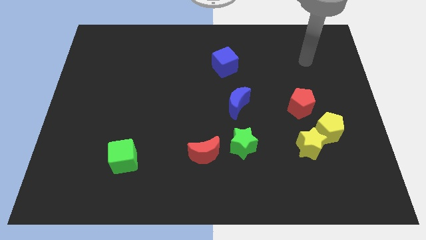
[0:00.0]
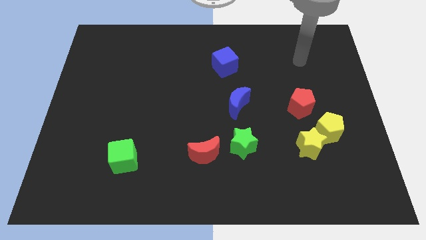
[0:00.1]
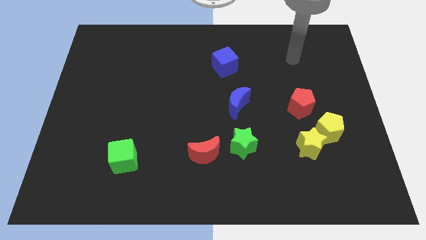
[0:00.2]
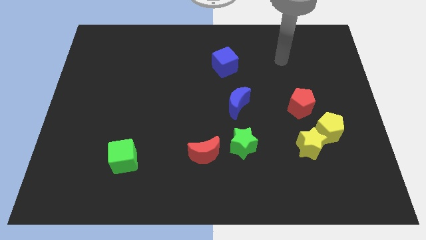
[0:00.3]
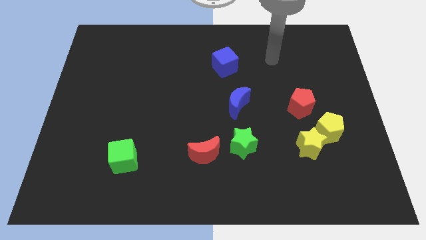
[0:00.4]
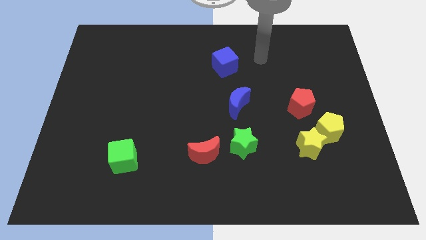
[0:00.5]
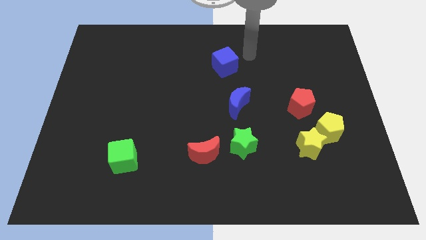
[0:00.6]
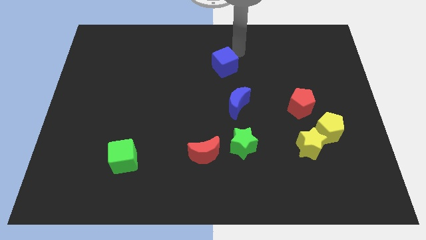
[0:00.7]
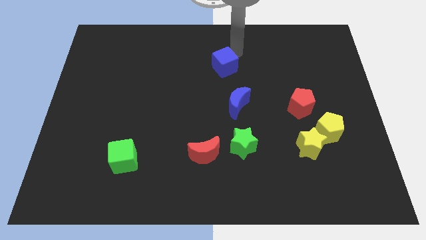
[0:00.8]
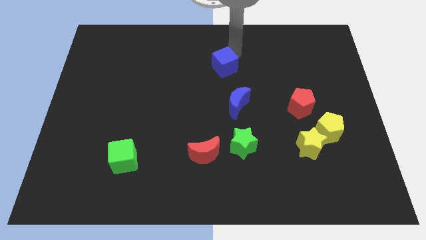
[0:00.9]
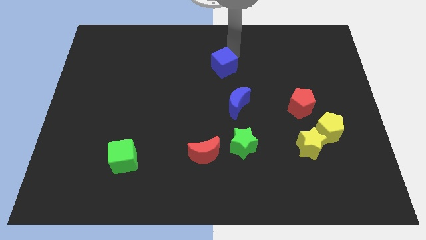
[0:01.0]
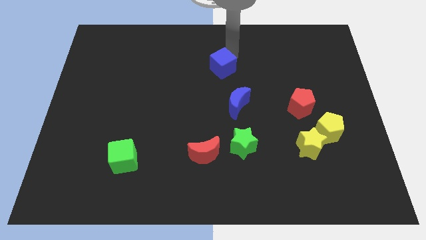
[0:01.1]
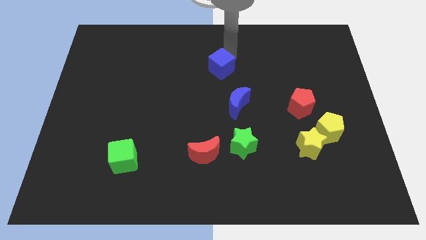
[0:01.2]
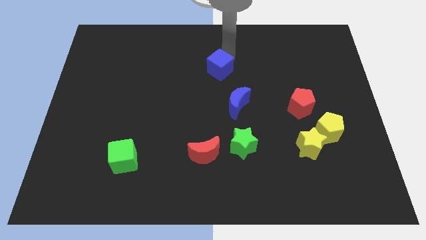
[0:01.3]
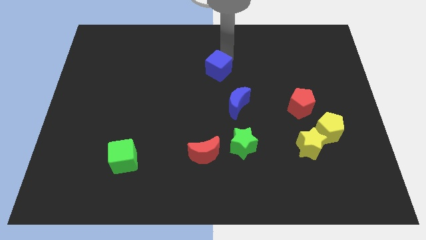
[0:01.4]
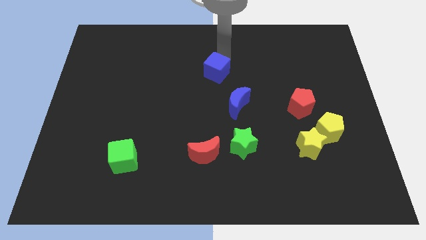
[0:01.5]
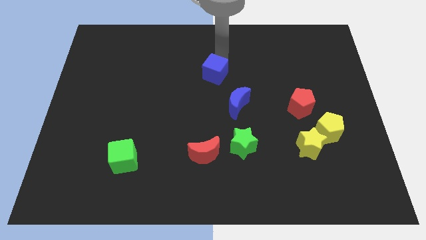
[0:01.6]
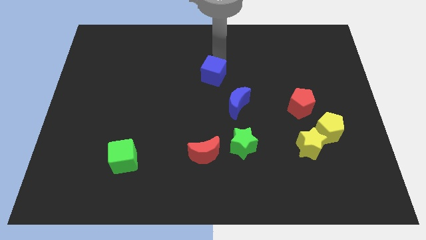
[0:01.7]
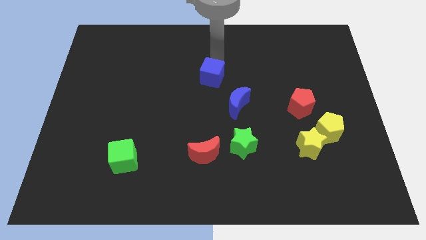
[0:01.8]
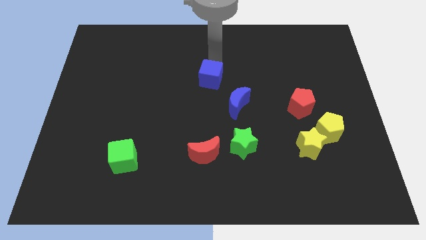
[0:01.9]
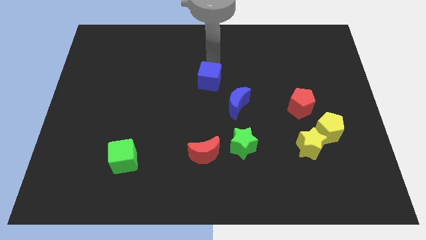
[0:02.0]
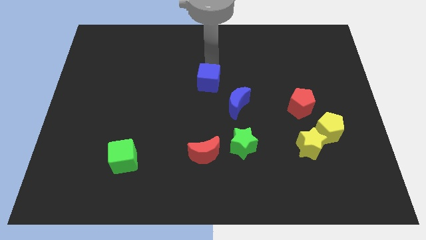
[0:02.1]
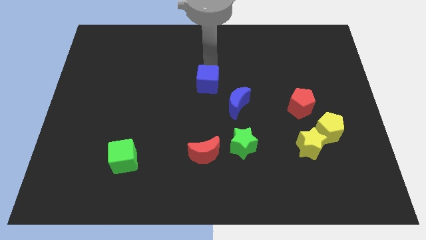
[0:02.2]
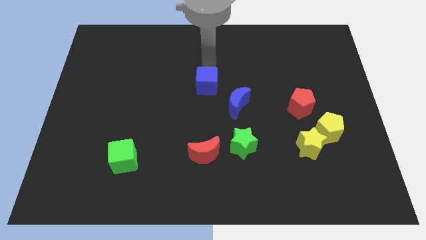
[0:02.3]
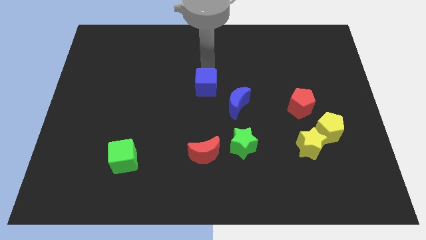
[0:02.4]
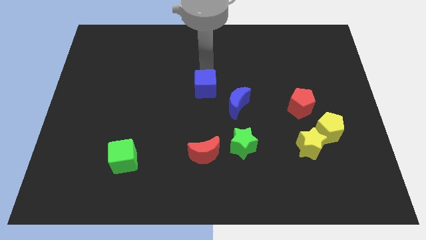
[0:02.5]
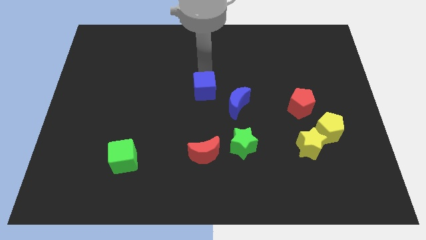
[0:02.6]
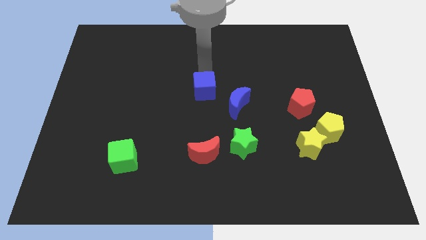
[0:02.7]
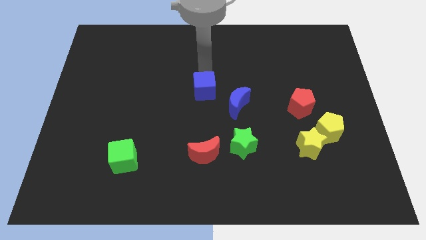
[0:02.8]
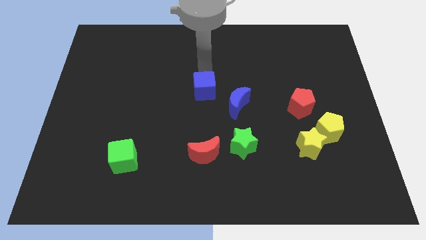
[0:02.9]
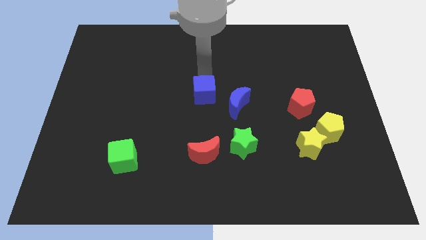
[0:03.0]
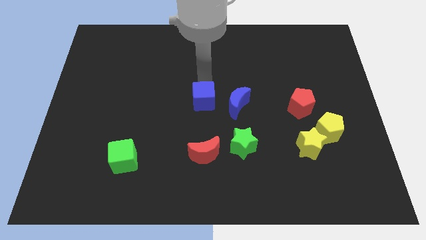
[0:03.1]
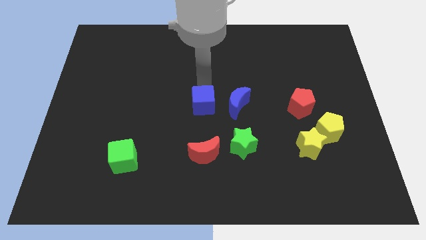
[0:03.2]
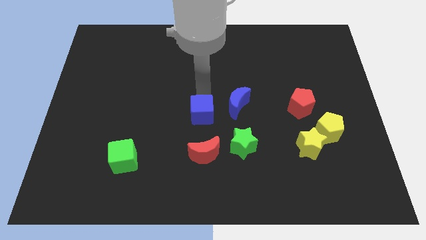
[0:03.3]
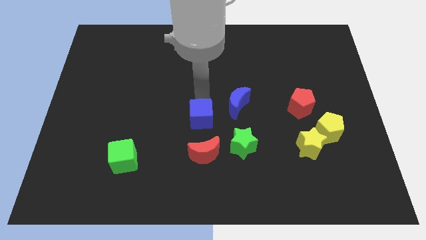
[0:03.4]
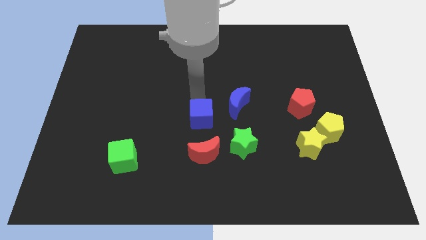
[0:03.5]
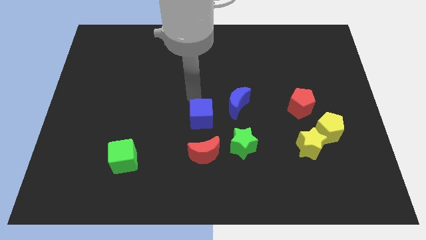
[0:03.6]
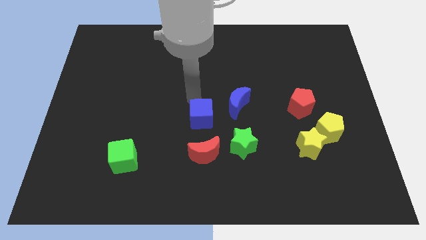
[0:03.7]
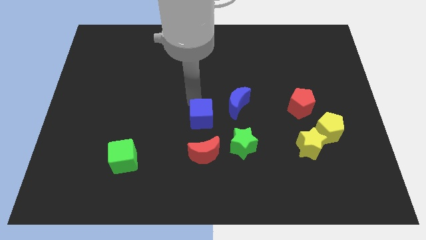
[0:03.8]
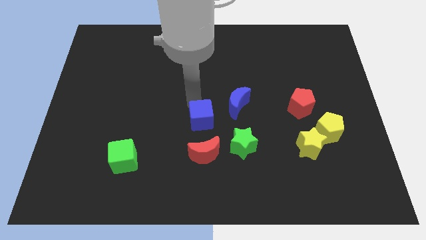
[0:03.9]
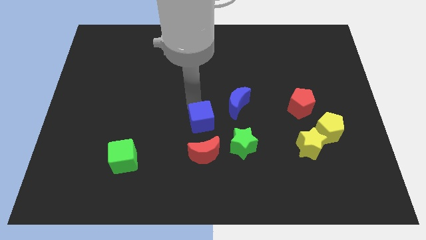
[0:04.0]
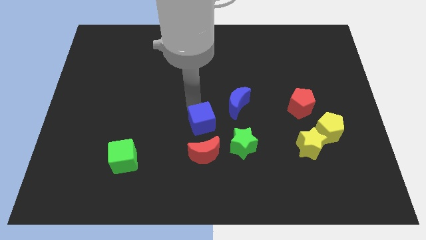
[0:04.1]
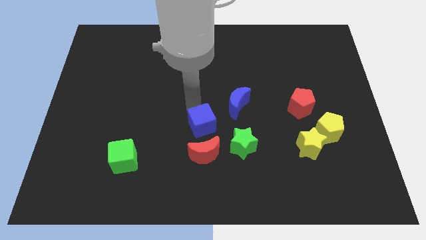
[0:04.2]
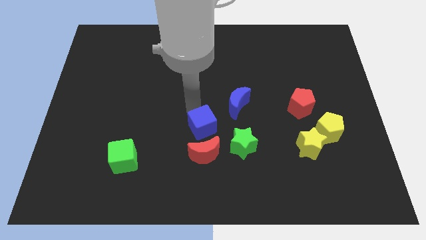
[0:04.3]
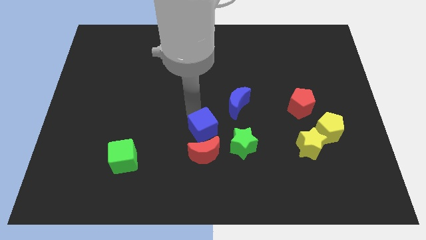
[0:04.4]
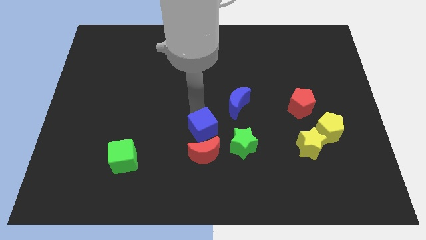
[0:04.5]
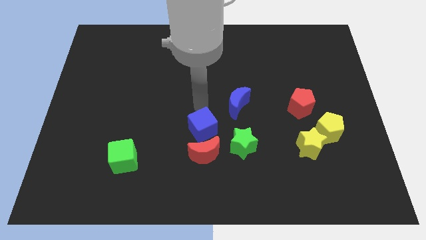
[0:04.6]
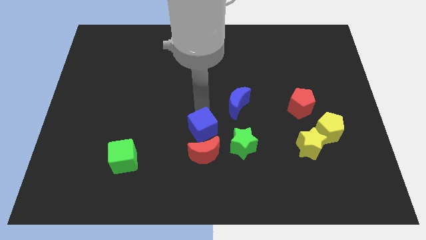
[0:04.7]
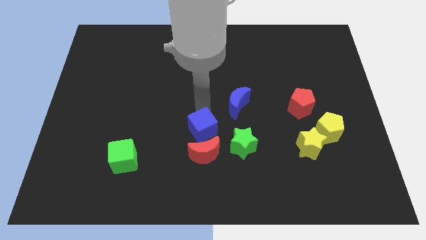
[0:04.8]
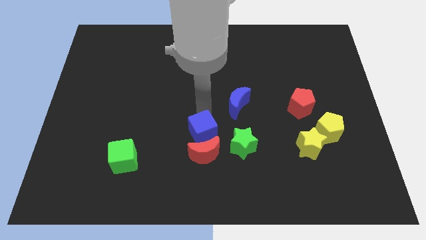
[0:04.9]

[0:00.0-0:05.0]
push the blue cube close to the red moon

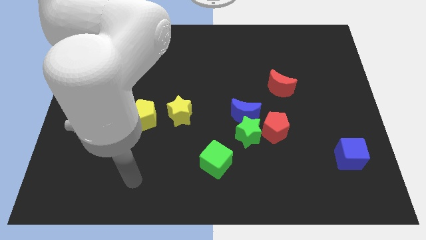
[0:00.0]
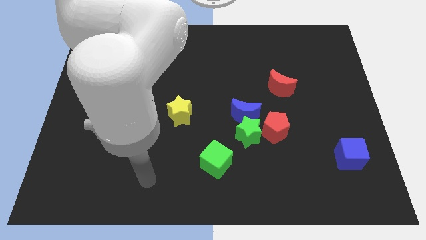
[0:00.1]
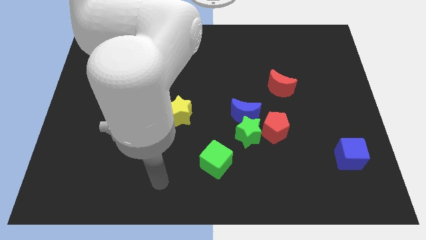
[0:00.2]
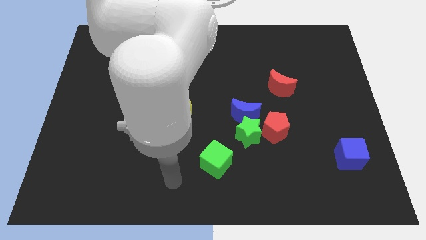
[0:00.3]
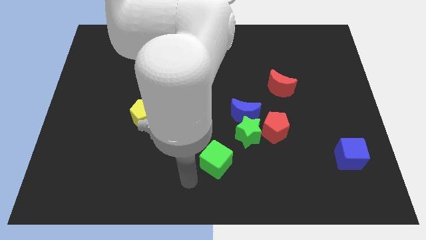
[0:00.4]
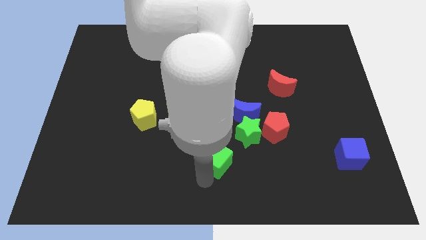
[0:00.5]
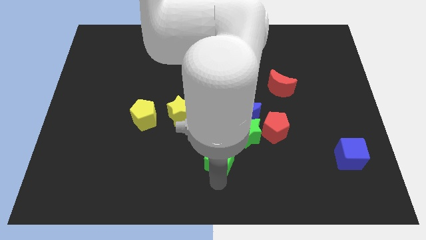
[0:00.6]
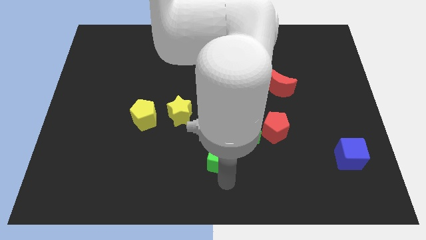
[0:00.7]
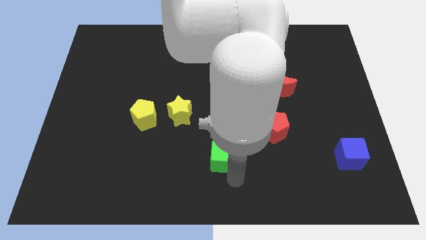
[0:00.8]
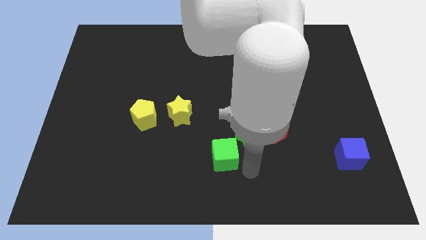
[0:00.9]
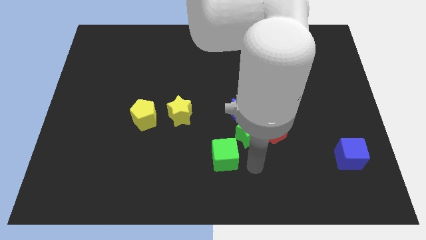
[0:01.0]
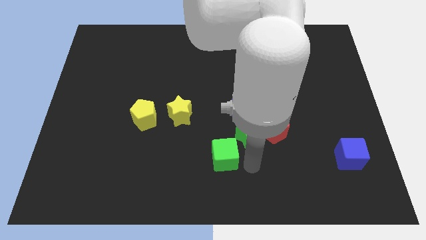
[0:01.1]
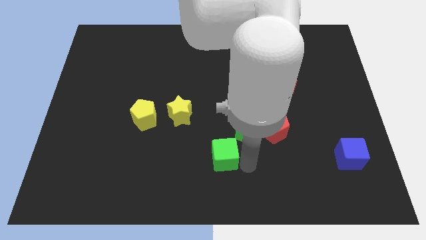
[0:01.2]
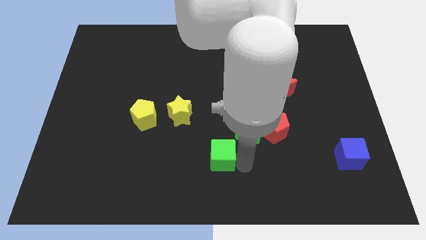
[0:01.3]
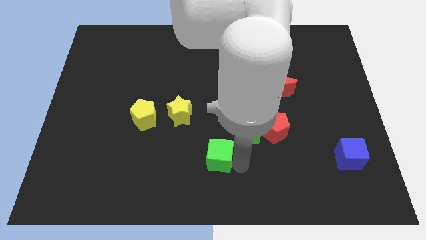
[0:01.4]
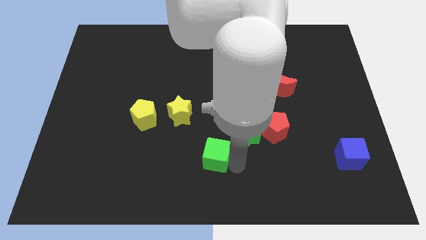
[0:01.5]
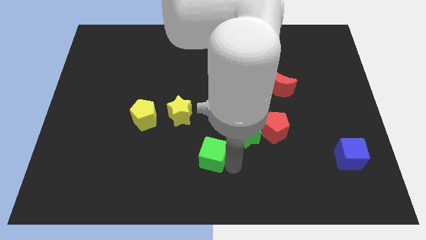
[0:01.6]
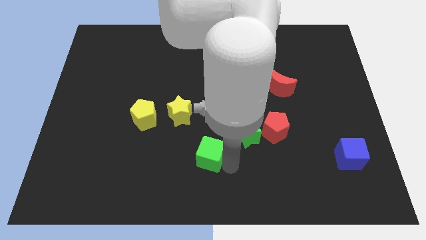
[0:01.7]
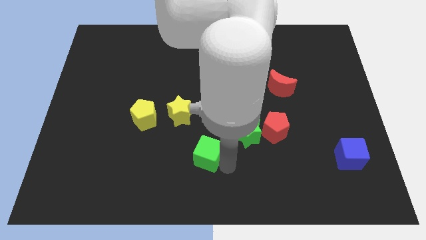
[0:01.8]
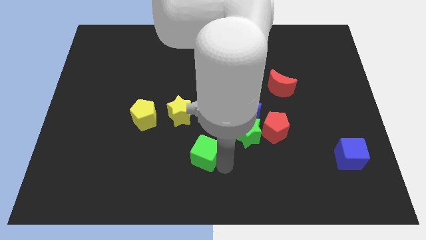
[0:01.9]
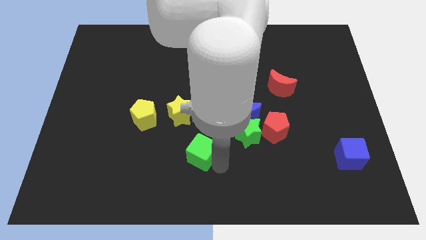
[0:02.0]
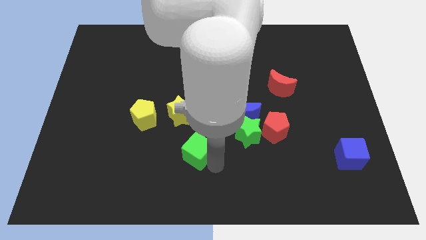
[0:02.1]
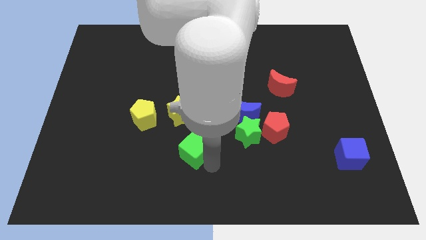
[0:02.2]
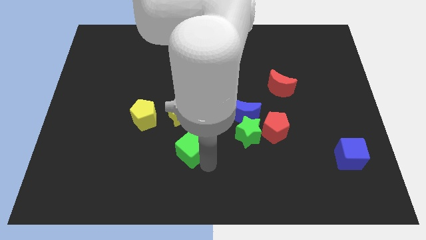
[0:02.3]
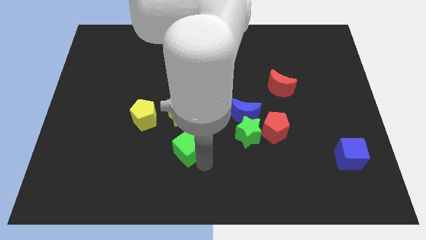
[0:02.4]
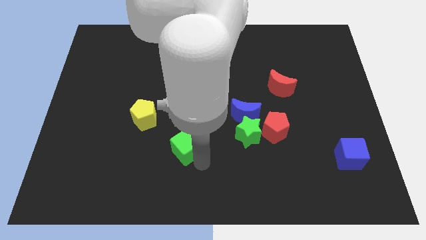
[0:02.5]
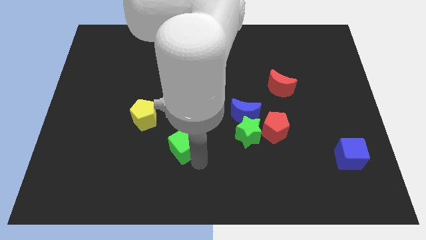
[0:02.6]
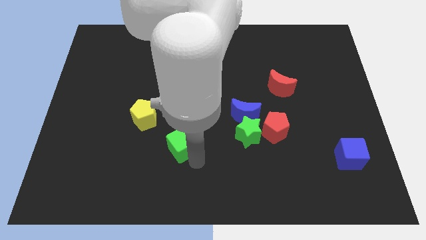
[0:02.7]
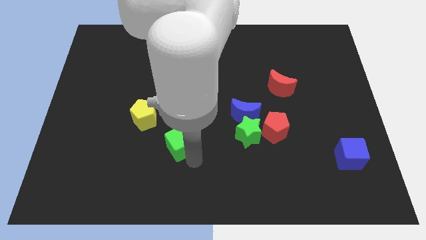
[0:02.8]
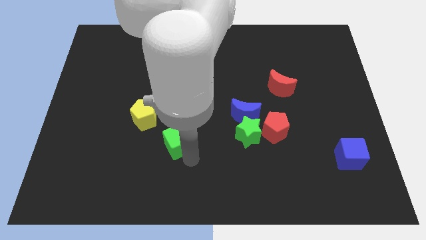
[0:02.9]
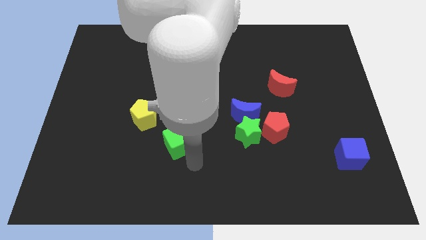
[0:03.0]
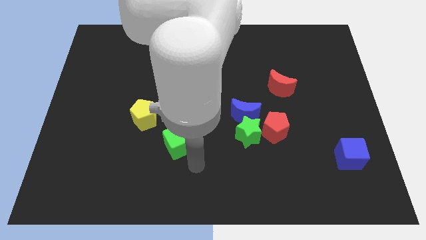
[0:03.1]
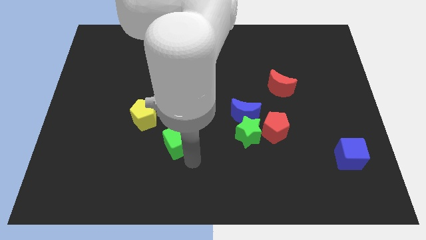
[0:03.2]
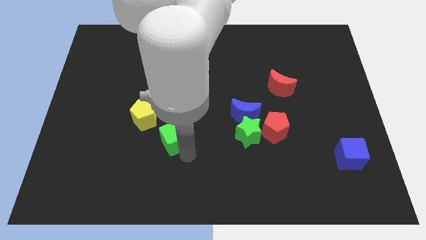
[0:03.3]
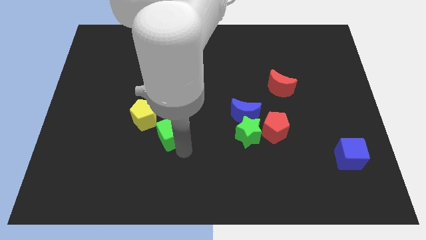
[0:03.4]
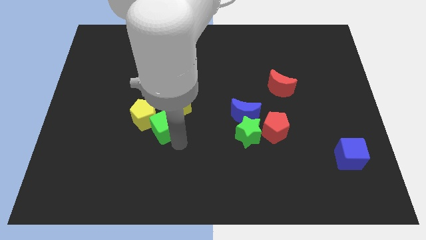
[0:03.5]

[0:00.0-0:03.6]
push the green cube close to the yellow pentagon
